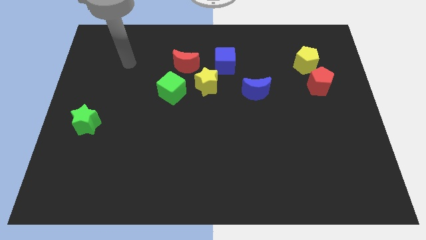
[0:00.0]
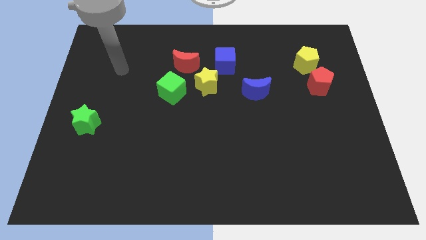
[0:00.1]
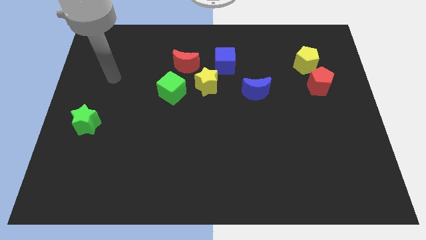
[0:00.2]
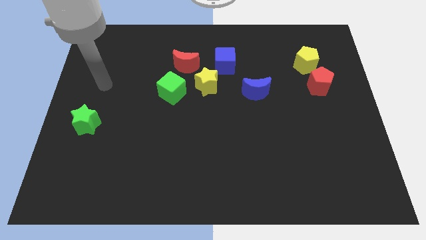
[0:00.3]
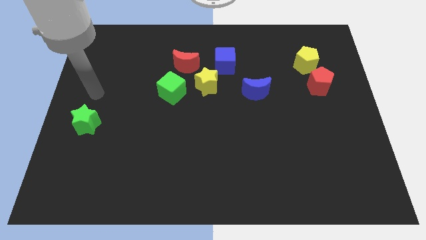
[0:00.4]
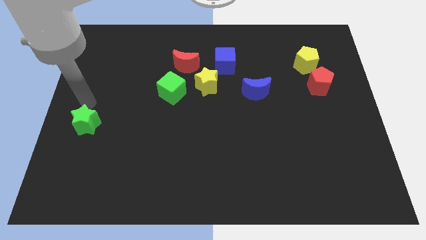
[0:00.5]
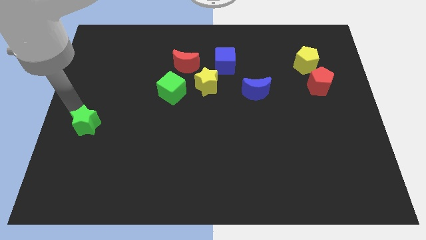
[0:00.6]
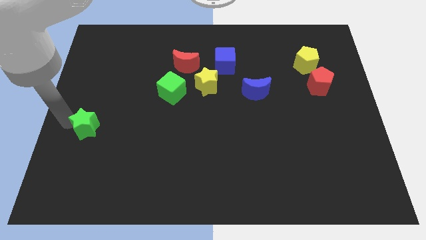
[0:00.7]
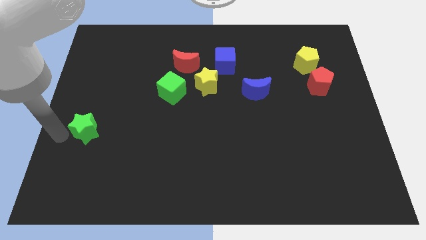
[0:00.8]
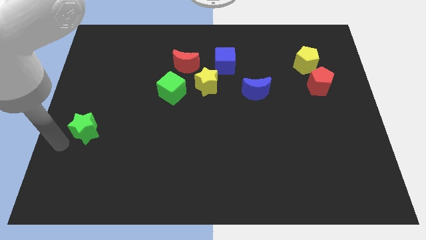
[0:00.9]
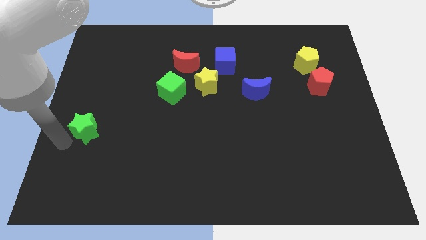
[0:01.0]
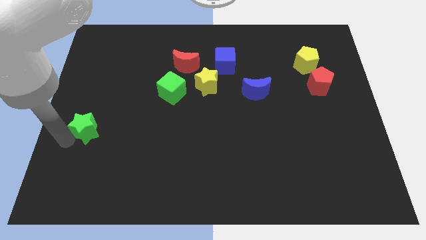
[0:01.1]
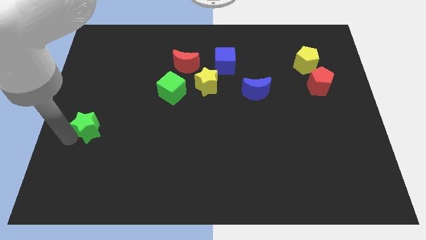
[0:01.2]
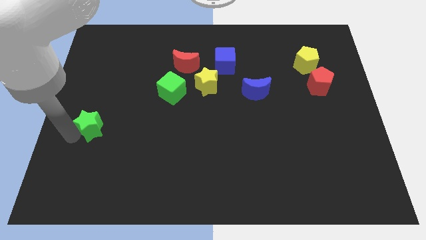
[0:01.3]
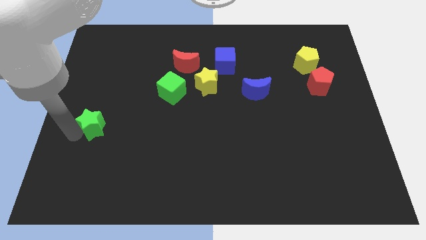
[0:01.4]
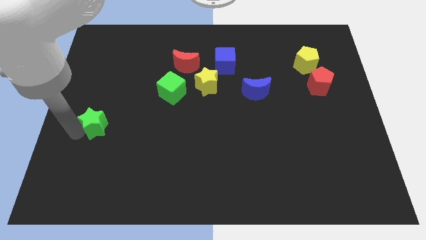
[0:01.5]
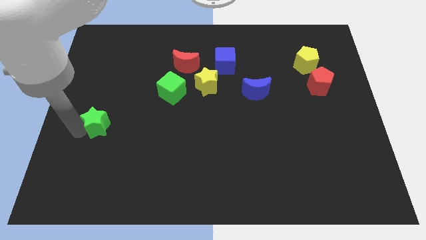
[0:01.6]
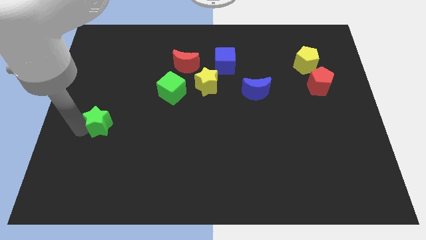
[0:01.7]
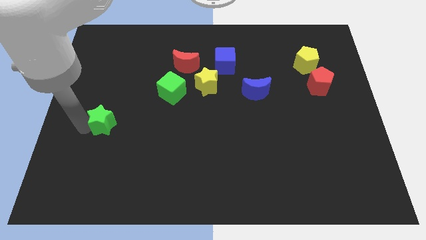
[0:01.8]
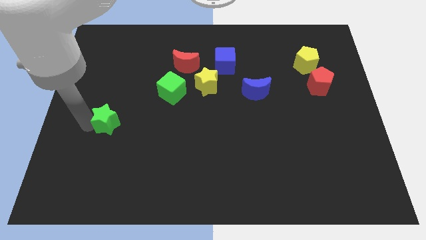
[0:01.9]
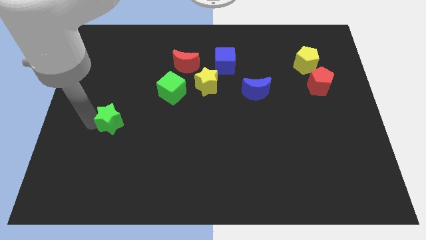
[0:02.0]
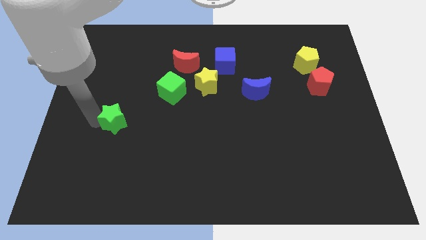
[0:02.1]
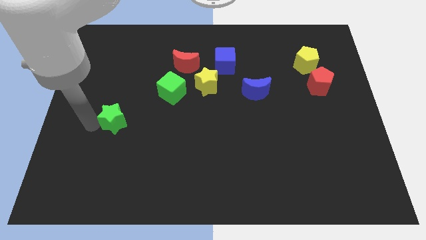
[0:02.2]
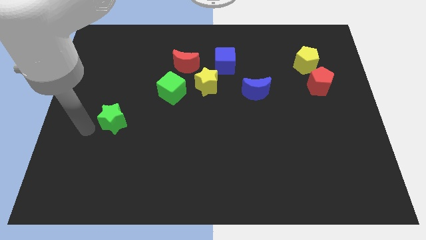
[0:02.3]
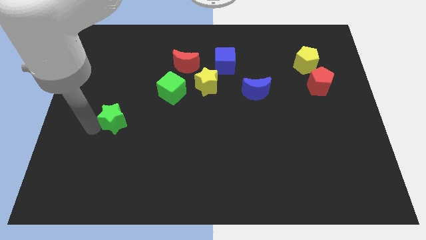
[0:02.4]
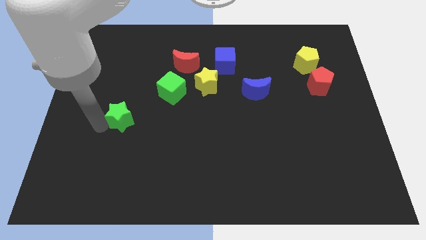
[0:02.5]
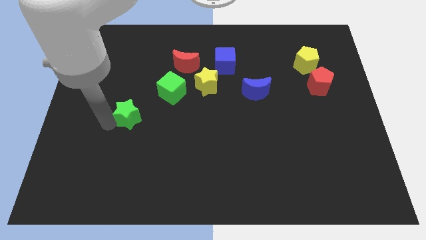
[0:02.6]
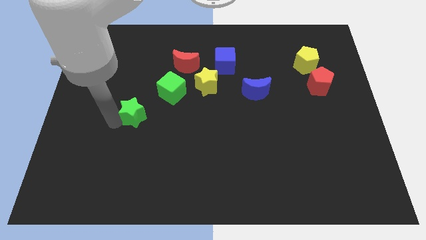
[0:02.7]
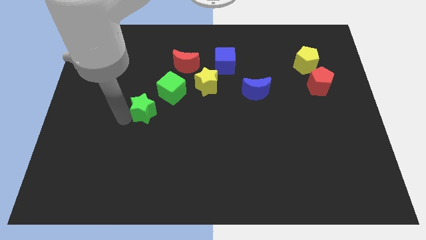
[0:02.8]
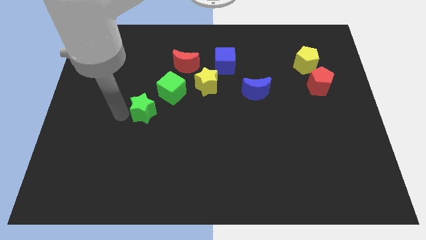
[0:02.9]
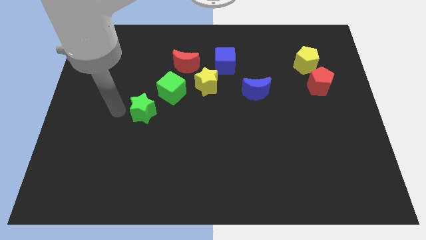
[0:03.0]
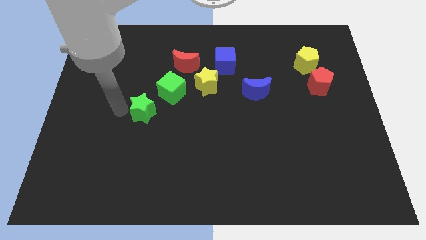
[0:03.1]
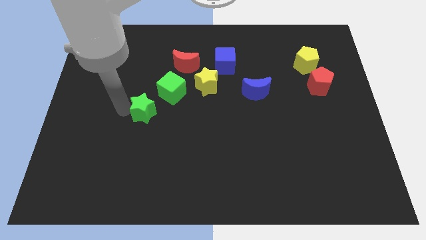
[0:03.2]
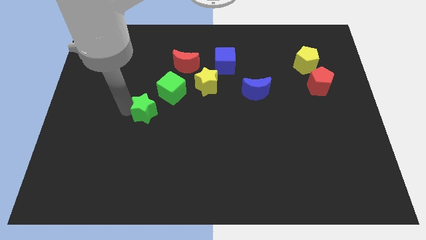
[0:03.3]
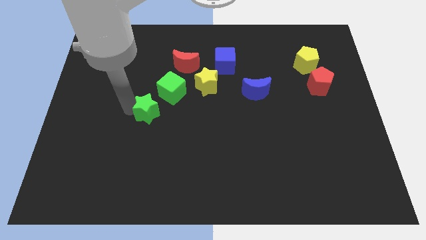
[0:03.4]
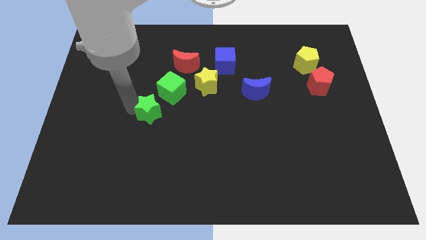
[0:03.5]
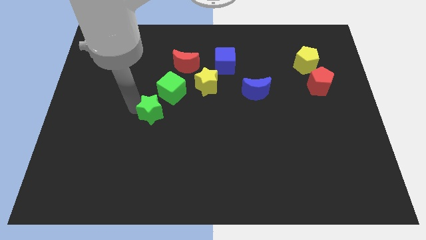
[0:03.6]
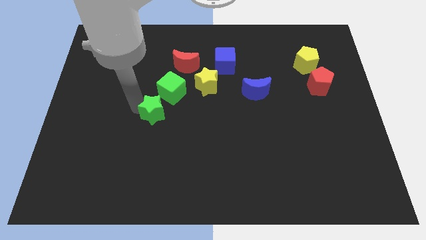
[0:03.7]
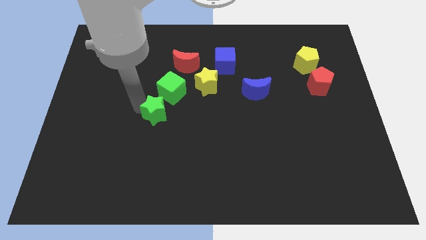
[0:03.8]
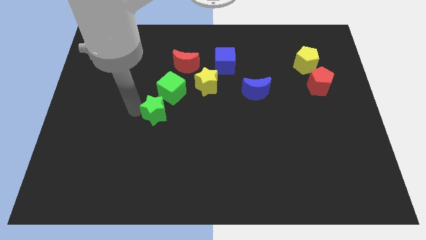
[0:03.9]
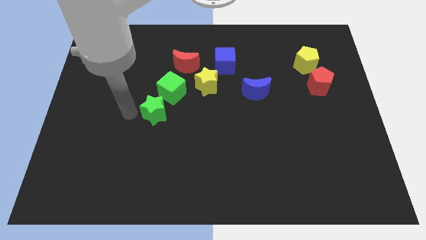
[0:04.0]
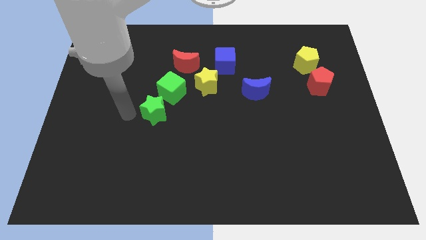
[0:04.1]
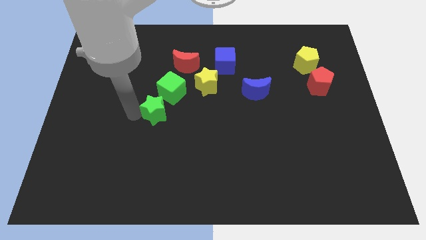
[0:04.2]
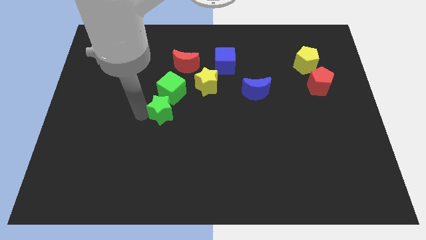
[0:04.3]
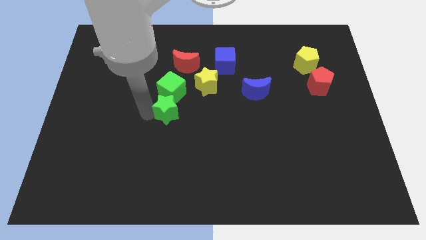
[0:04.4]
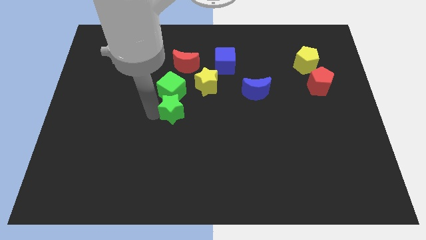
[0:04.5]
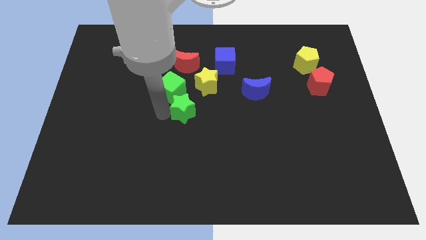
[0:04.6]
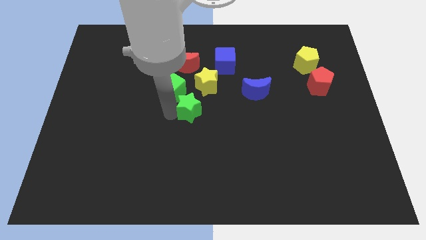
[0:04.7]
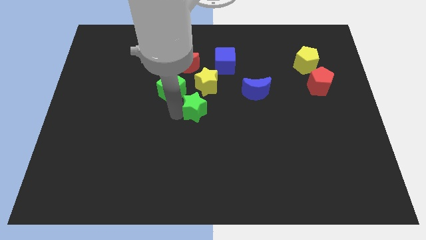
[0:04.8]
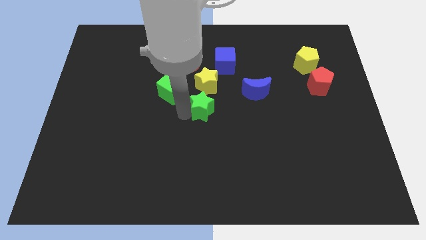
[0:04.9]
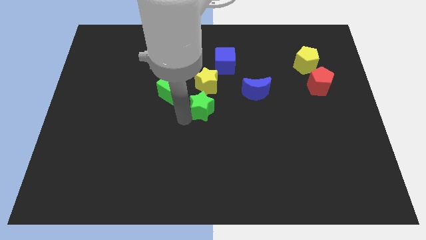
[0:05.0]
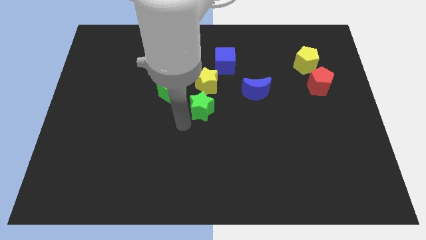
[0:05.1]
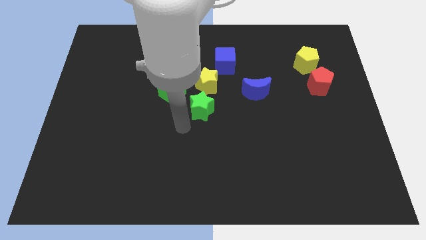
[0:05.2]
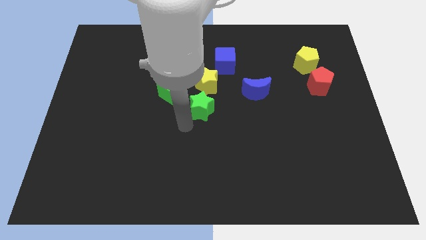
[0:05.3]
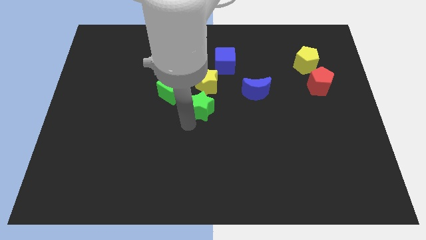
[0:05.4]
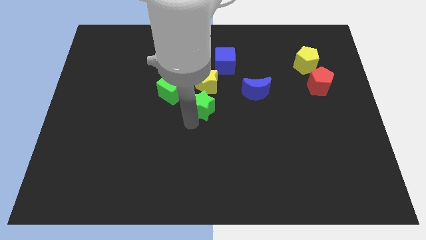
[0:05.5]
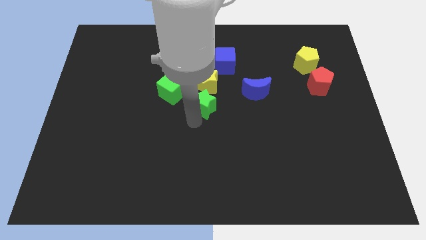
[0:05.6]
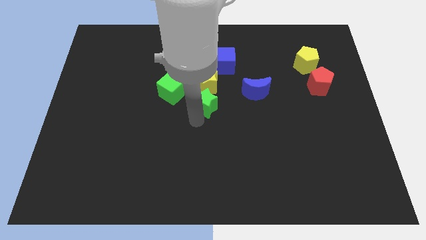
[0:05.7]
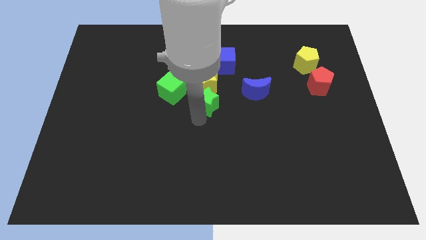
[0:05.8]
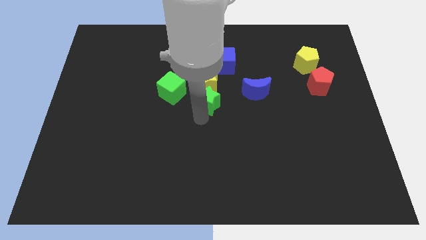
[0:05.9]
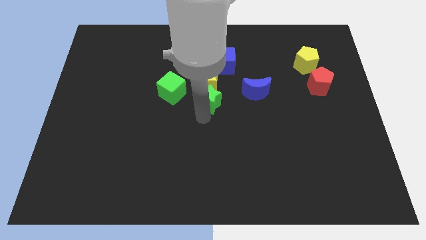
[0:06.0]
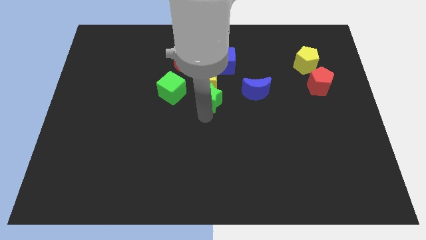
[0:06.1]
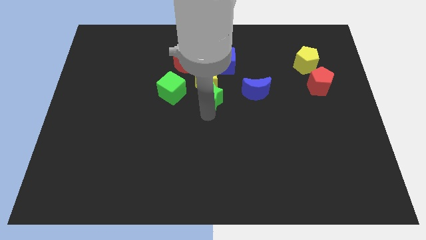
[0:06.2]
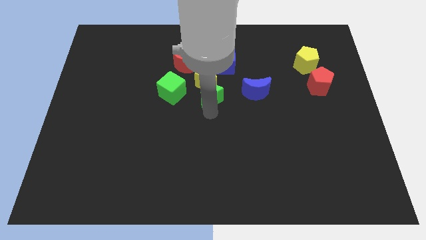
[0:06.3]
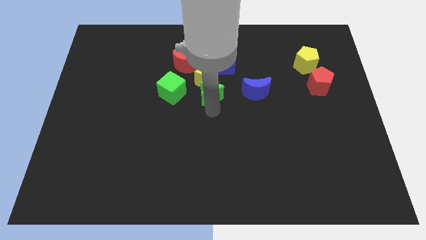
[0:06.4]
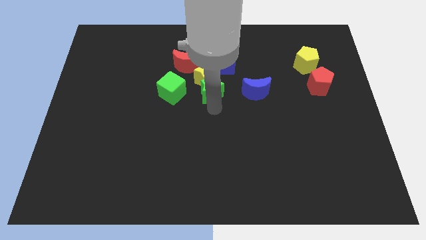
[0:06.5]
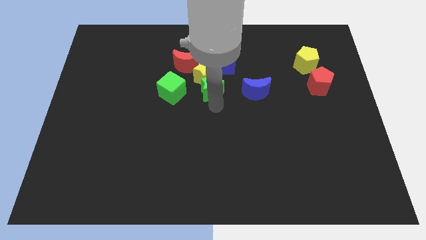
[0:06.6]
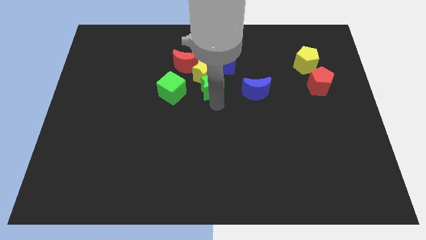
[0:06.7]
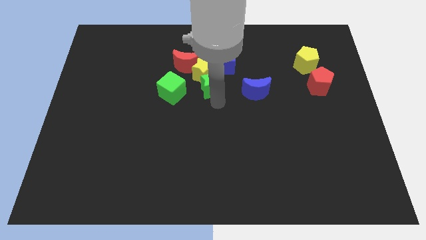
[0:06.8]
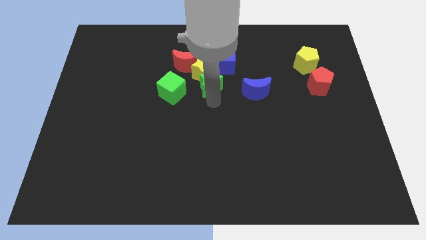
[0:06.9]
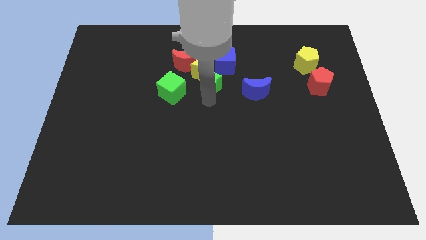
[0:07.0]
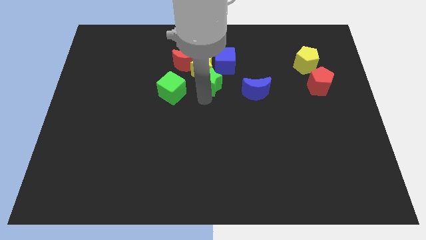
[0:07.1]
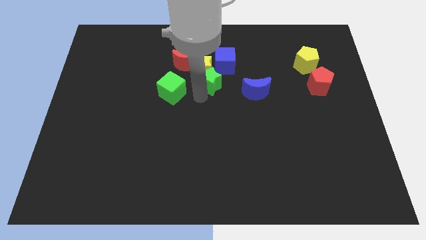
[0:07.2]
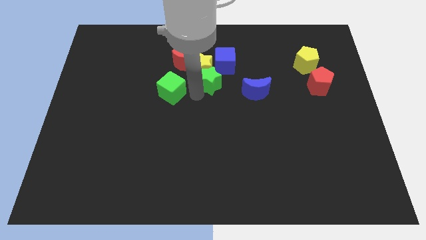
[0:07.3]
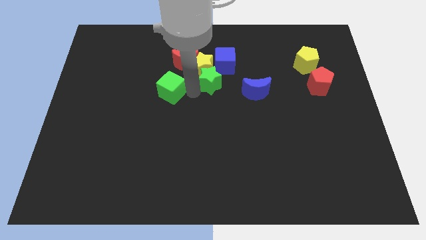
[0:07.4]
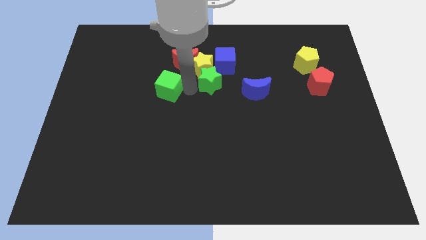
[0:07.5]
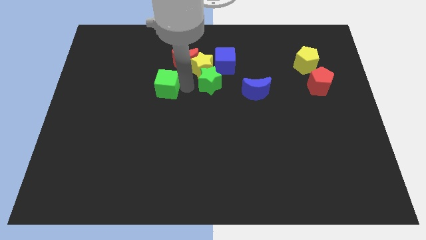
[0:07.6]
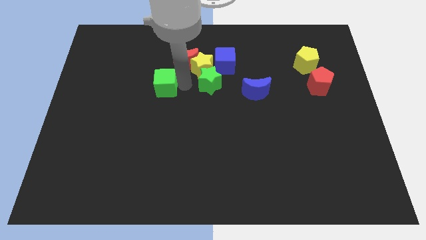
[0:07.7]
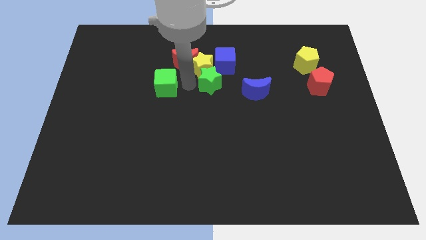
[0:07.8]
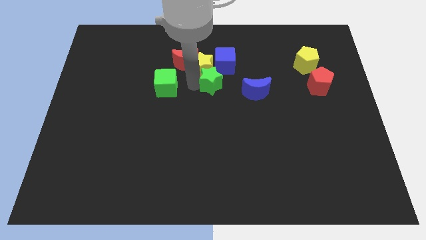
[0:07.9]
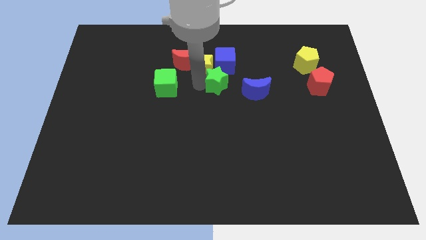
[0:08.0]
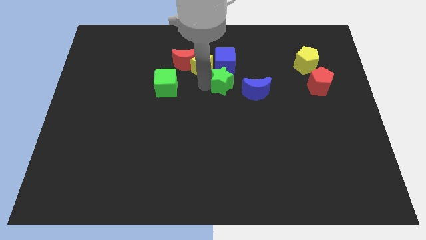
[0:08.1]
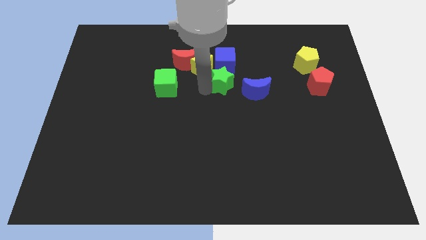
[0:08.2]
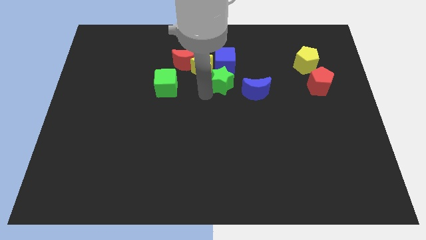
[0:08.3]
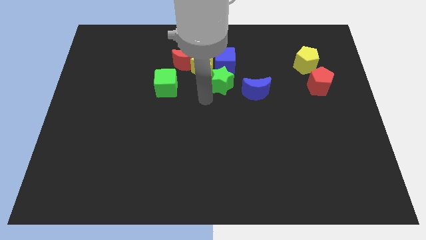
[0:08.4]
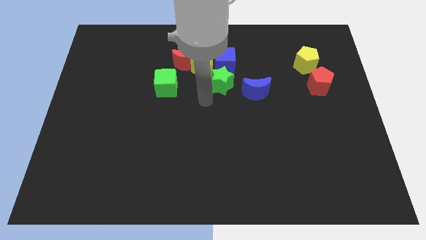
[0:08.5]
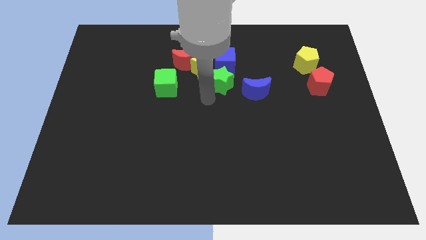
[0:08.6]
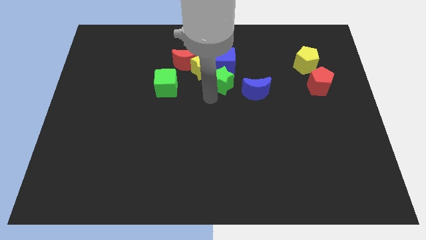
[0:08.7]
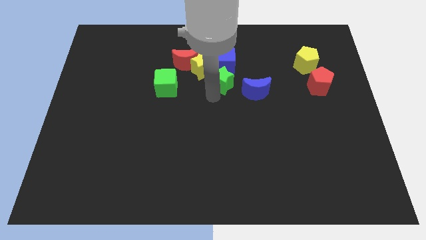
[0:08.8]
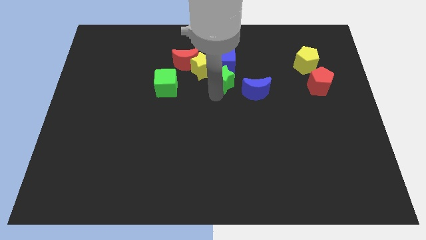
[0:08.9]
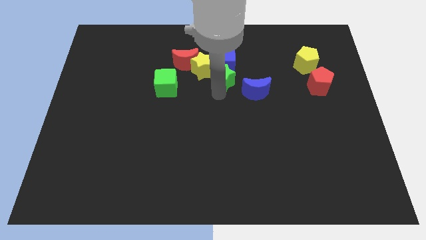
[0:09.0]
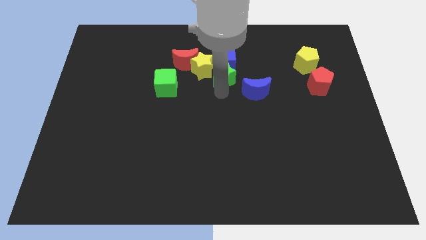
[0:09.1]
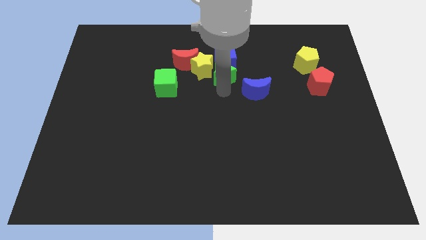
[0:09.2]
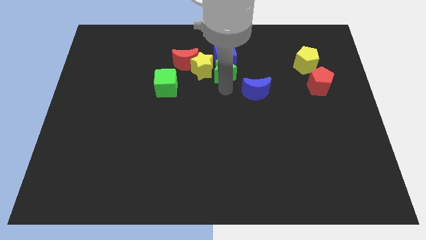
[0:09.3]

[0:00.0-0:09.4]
move the green star right of the red moon
